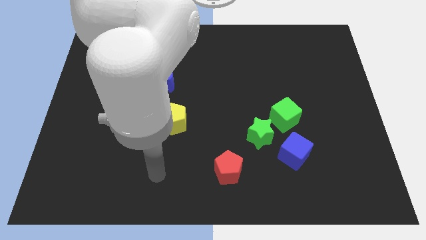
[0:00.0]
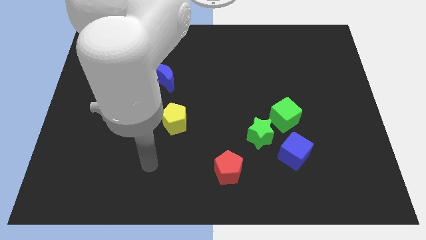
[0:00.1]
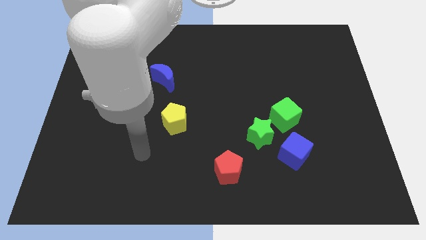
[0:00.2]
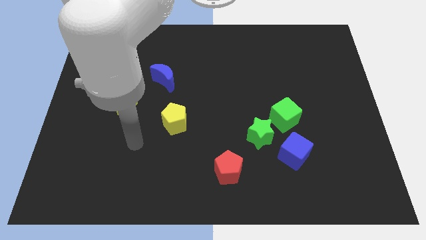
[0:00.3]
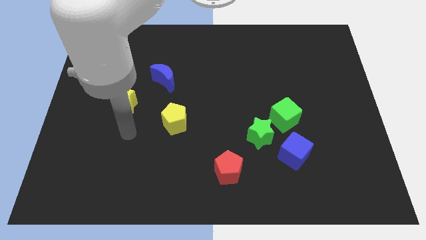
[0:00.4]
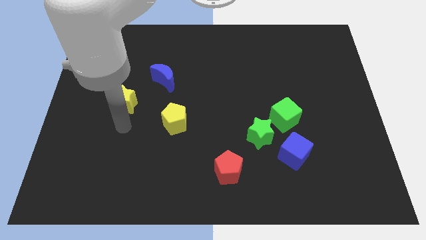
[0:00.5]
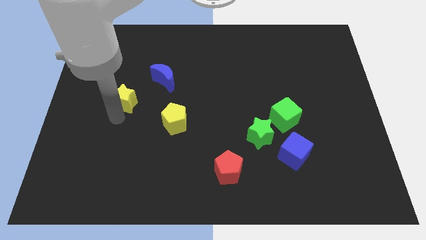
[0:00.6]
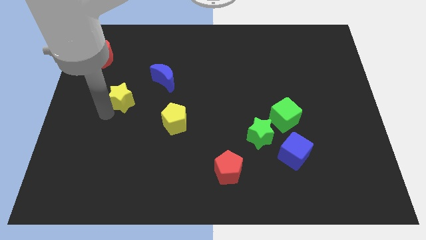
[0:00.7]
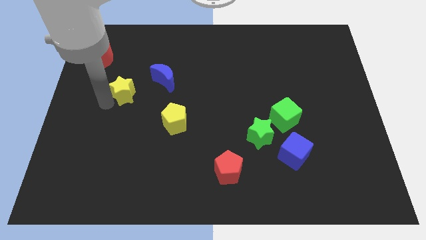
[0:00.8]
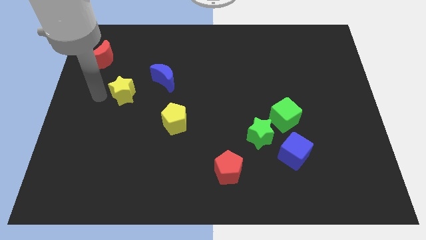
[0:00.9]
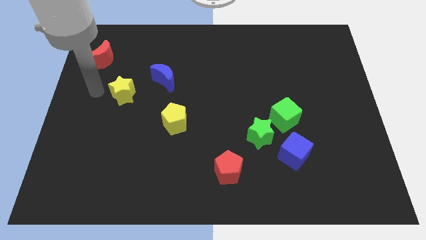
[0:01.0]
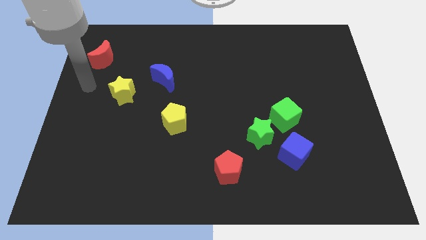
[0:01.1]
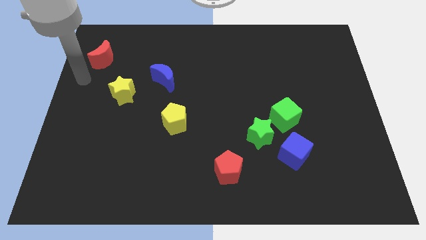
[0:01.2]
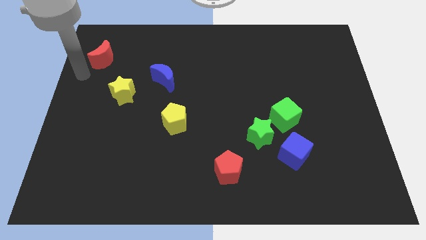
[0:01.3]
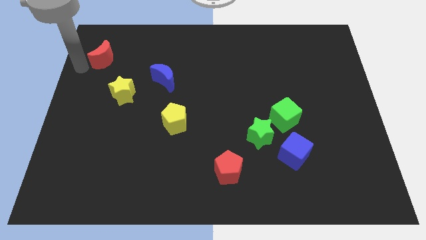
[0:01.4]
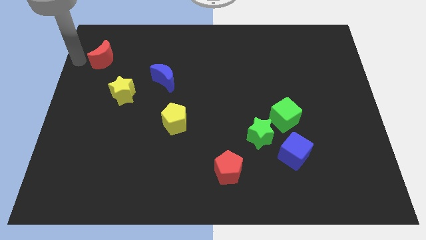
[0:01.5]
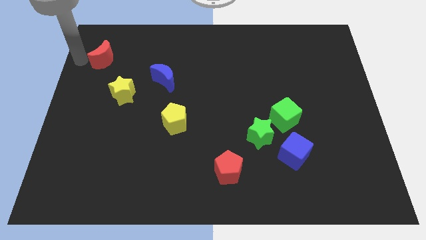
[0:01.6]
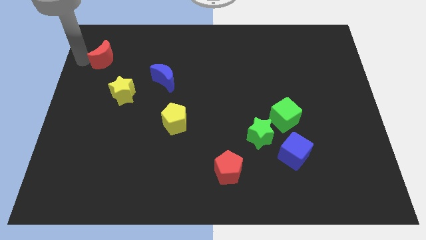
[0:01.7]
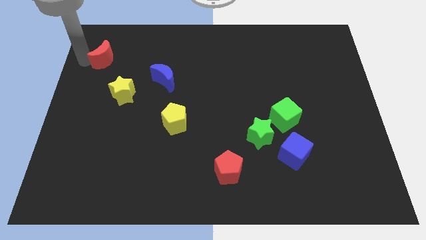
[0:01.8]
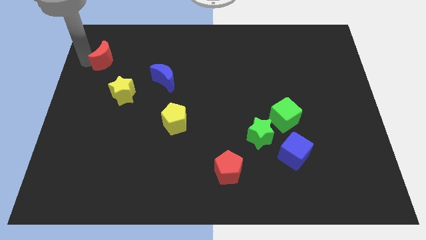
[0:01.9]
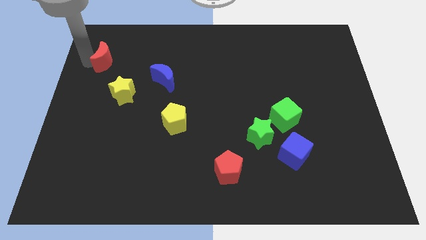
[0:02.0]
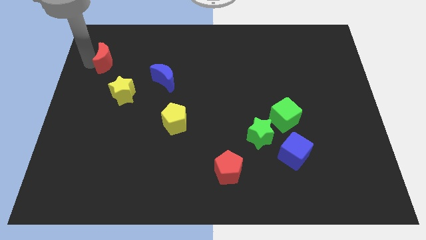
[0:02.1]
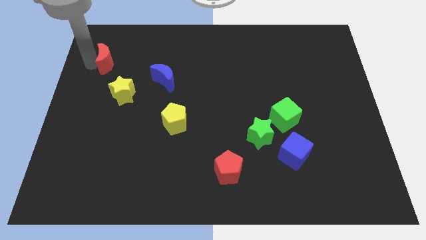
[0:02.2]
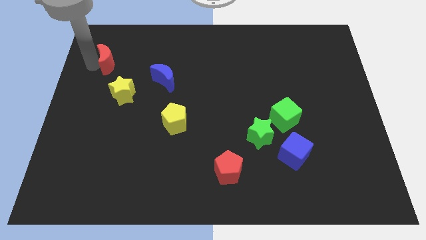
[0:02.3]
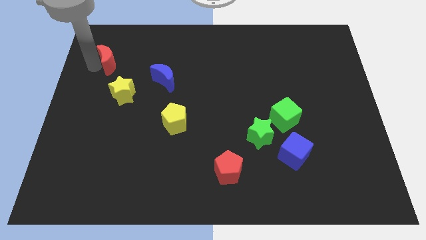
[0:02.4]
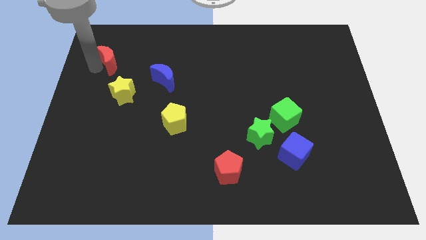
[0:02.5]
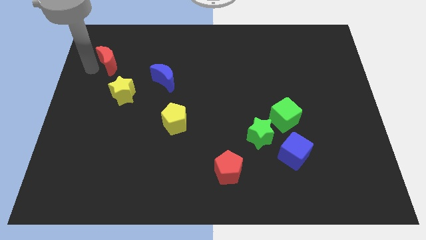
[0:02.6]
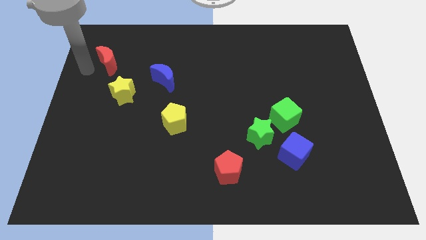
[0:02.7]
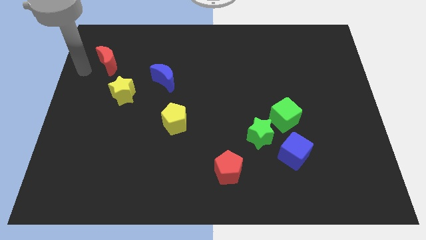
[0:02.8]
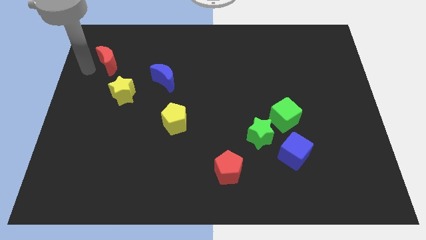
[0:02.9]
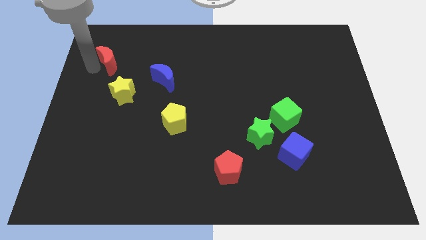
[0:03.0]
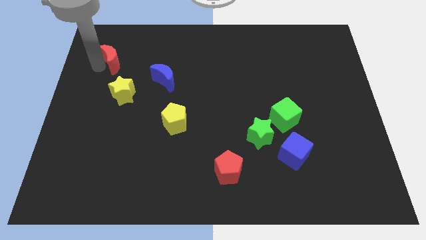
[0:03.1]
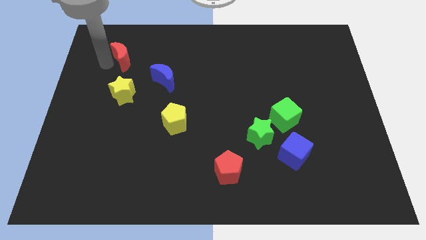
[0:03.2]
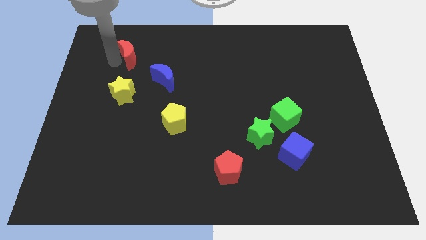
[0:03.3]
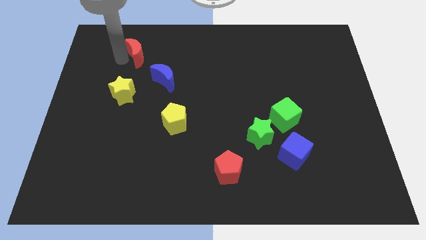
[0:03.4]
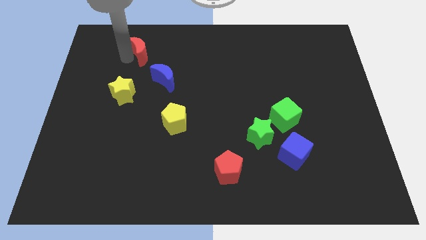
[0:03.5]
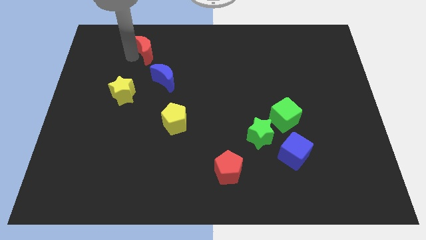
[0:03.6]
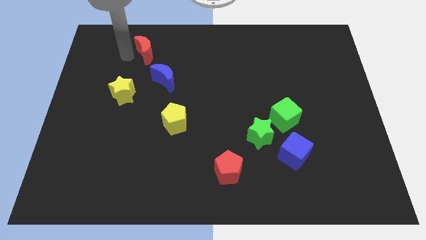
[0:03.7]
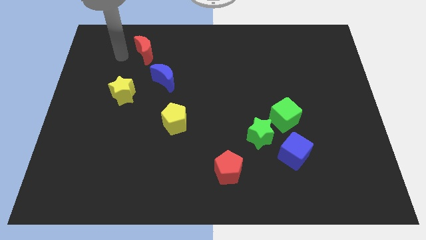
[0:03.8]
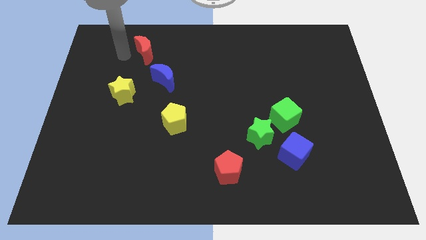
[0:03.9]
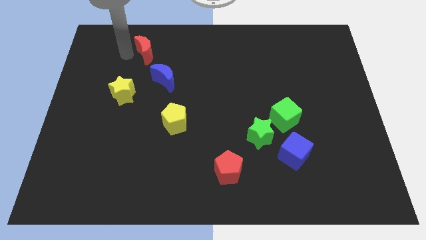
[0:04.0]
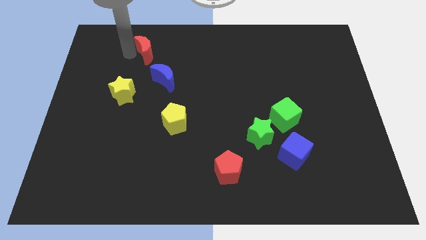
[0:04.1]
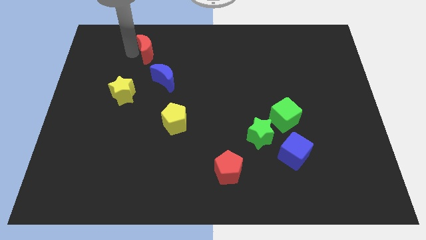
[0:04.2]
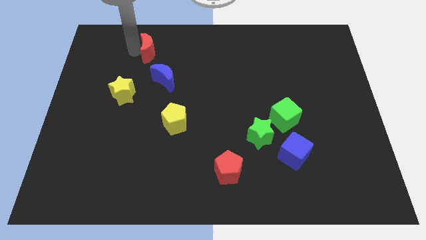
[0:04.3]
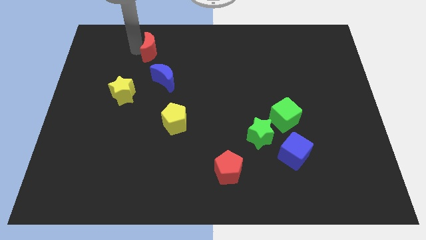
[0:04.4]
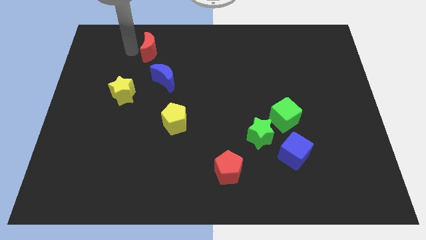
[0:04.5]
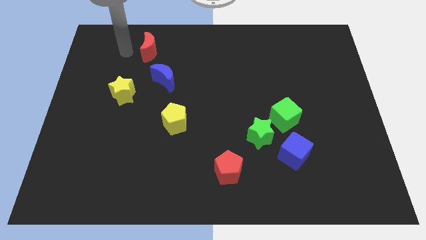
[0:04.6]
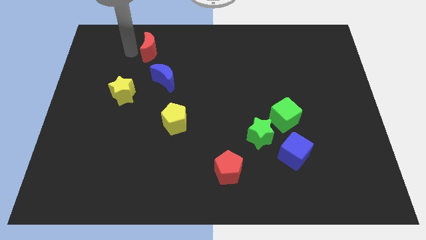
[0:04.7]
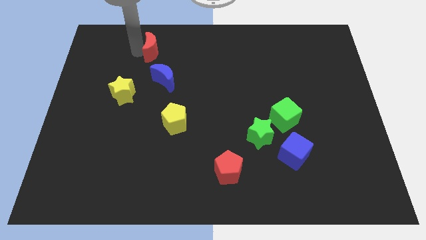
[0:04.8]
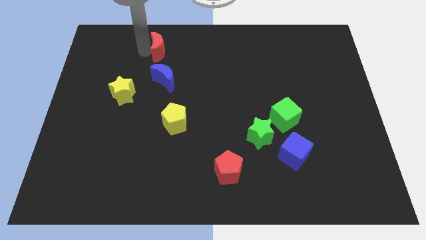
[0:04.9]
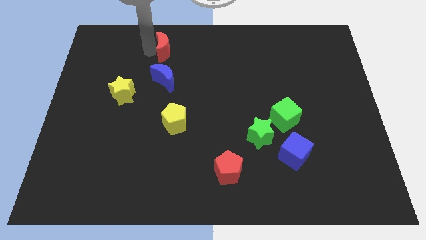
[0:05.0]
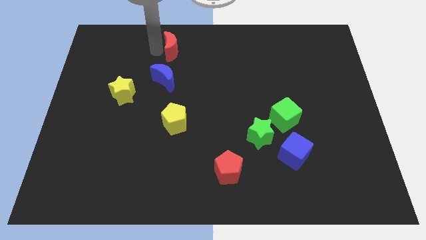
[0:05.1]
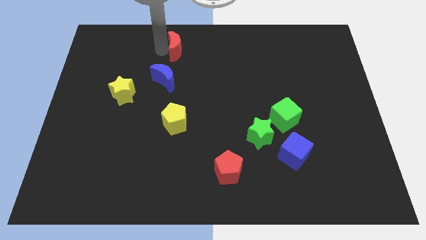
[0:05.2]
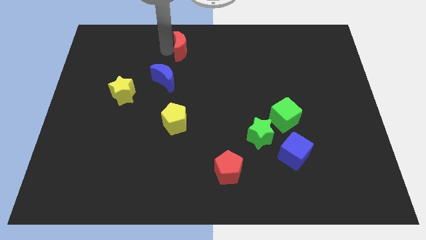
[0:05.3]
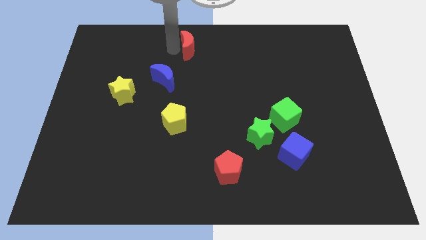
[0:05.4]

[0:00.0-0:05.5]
push the red moon to the right

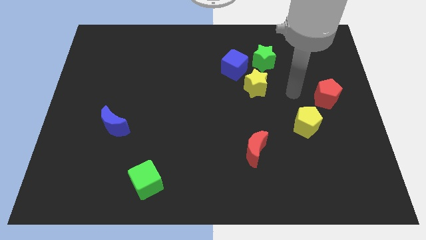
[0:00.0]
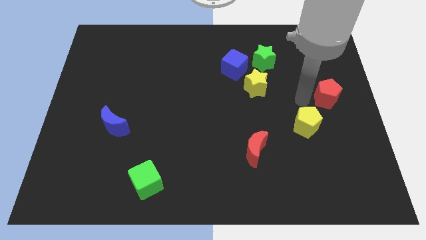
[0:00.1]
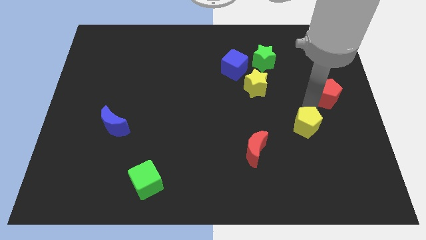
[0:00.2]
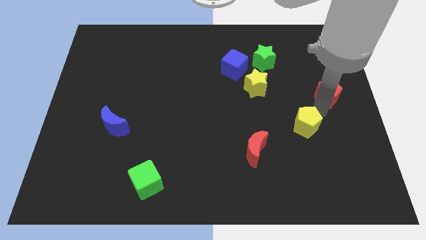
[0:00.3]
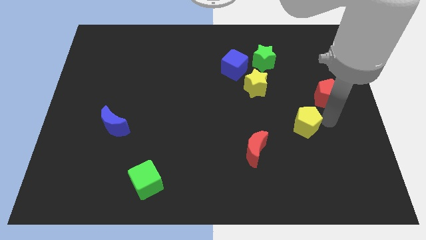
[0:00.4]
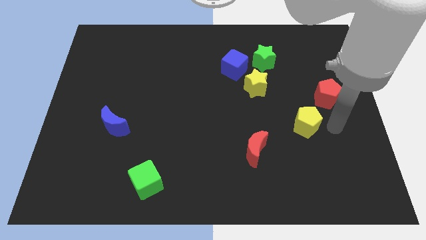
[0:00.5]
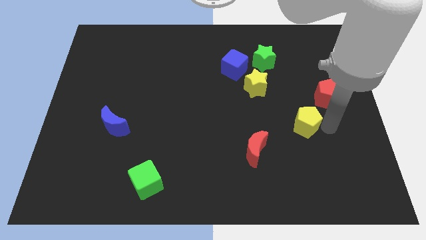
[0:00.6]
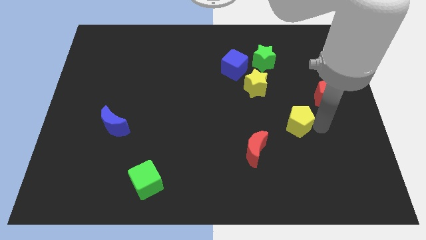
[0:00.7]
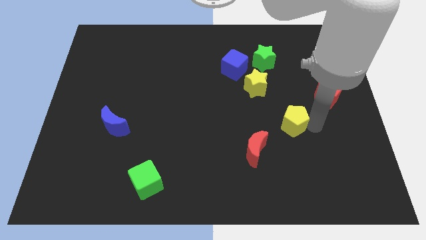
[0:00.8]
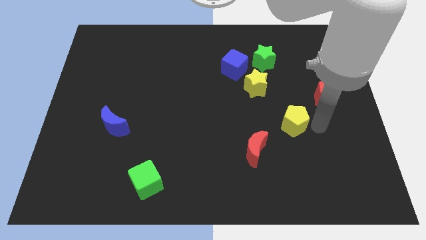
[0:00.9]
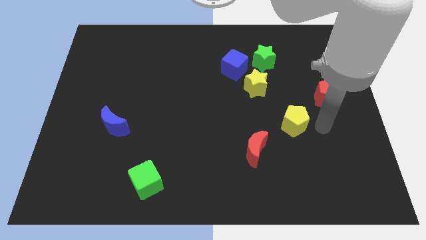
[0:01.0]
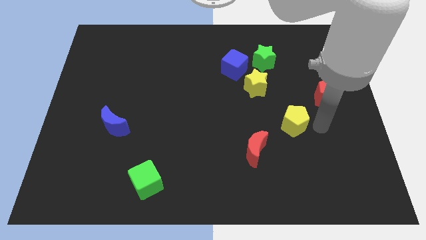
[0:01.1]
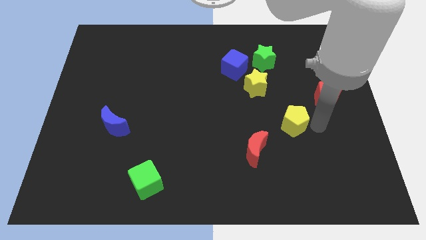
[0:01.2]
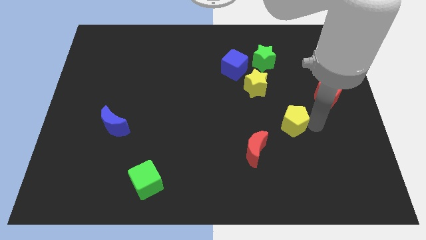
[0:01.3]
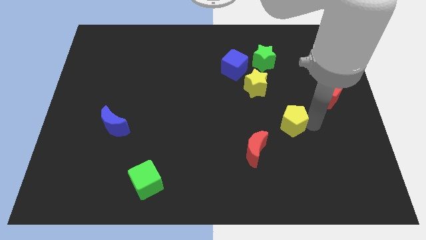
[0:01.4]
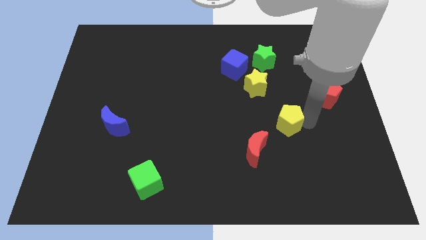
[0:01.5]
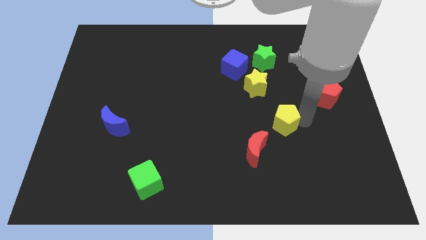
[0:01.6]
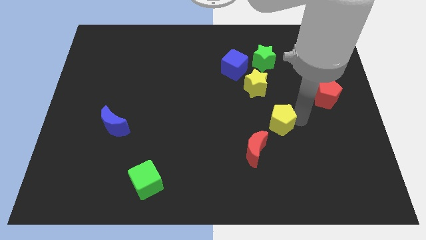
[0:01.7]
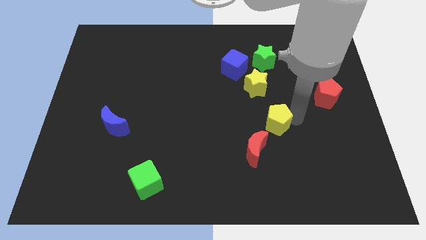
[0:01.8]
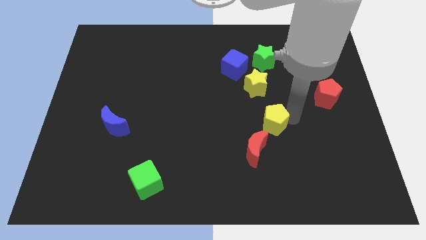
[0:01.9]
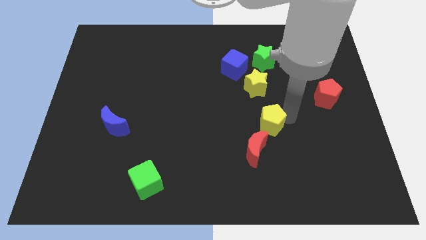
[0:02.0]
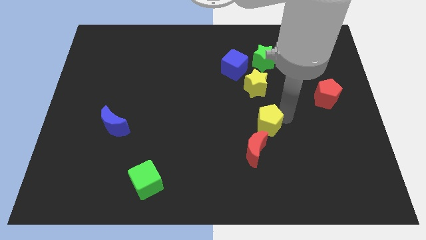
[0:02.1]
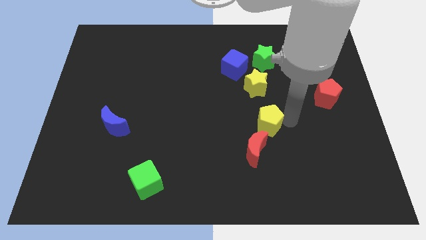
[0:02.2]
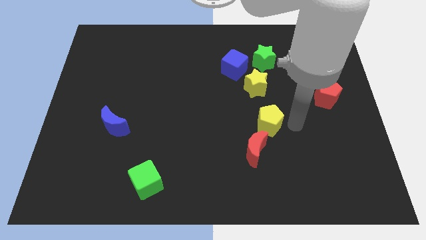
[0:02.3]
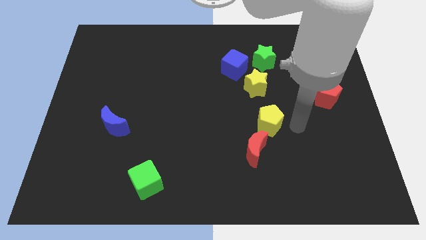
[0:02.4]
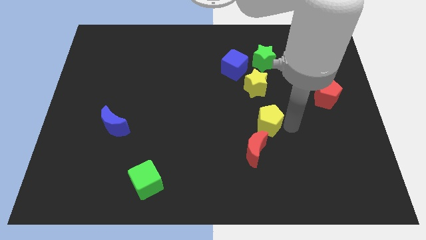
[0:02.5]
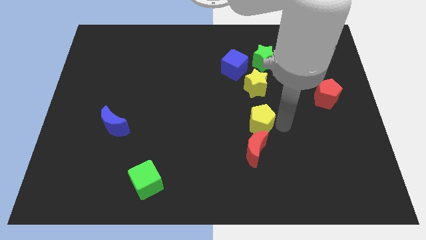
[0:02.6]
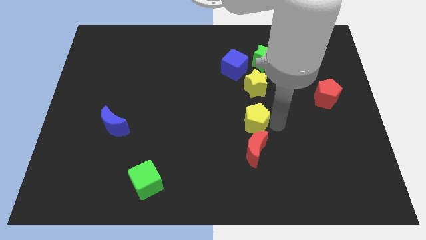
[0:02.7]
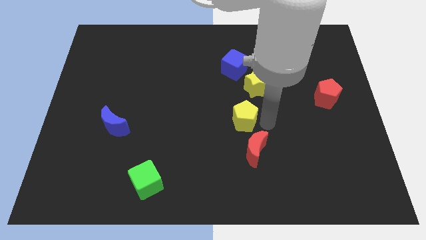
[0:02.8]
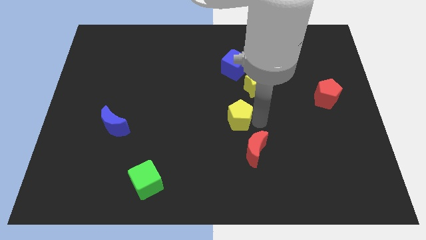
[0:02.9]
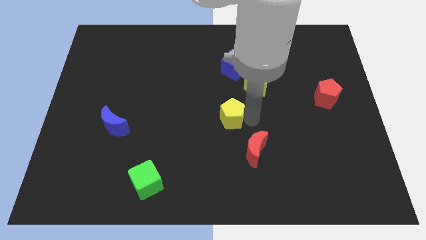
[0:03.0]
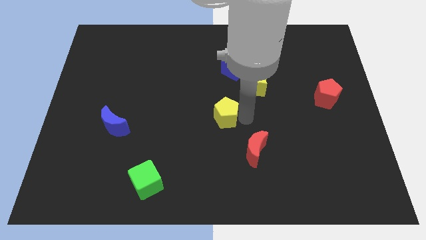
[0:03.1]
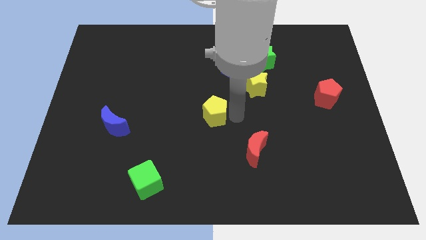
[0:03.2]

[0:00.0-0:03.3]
move the yellow pentagon to the left
